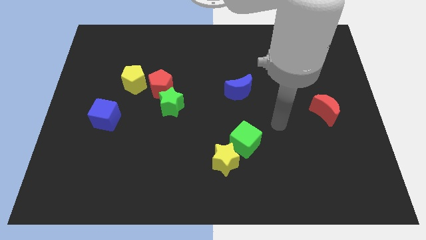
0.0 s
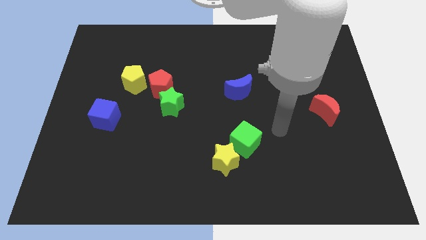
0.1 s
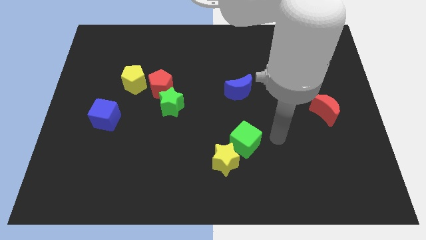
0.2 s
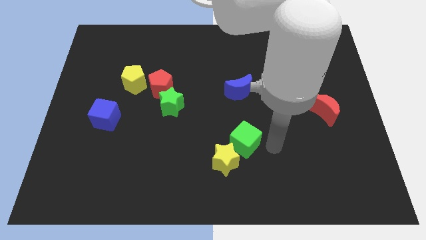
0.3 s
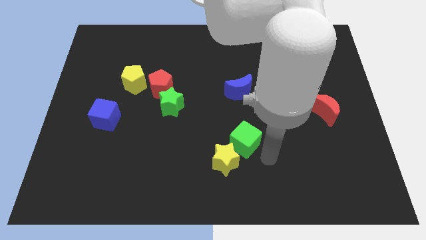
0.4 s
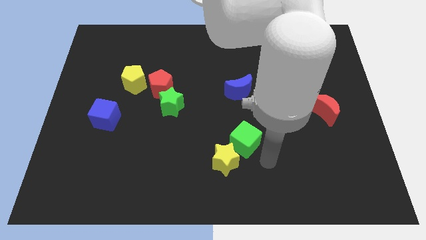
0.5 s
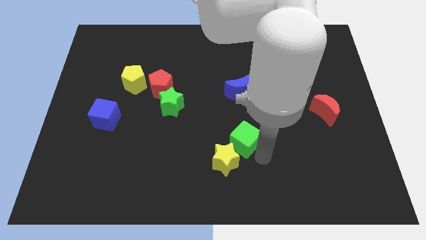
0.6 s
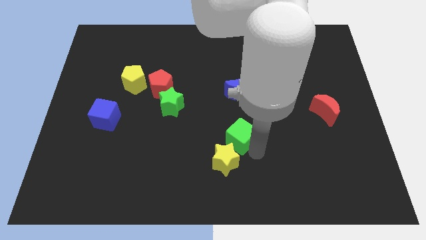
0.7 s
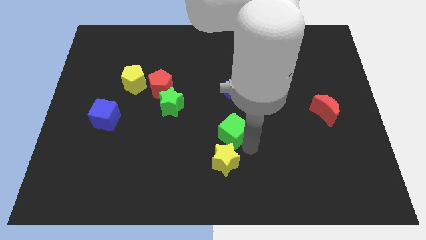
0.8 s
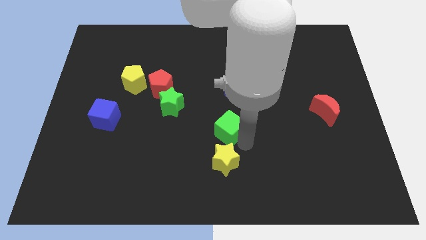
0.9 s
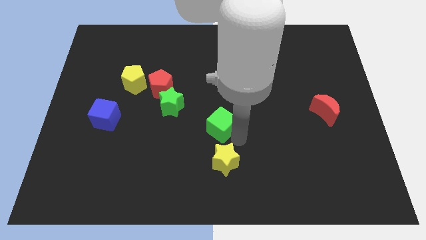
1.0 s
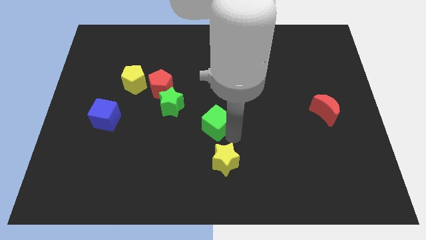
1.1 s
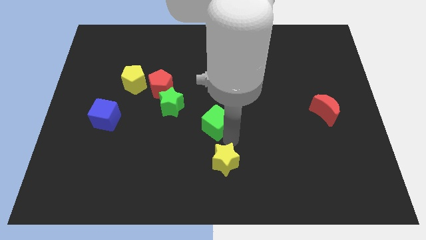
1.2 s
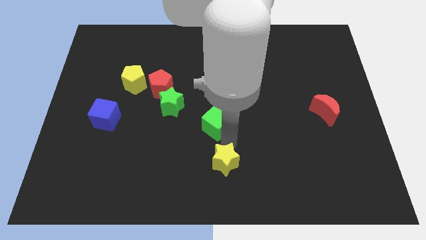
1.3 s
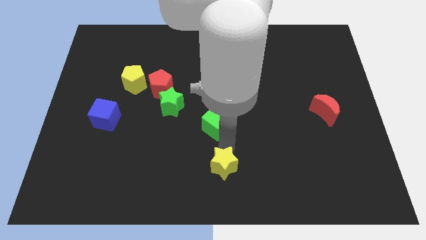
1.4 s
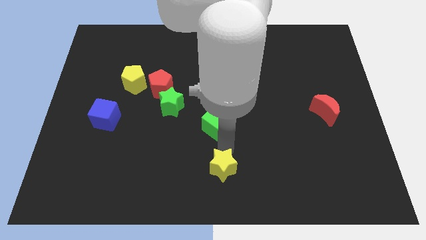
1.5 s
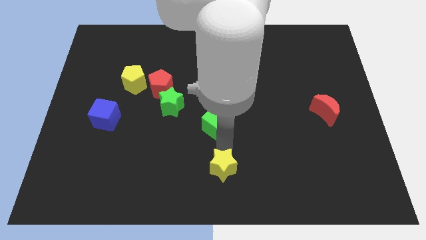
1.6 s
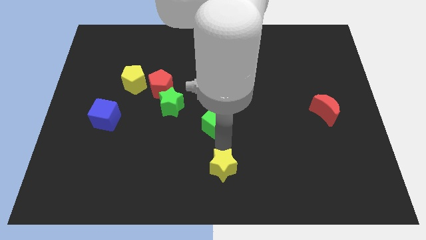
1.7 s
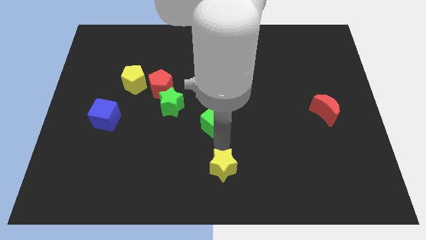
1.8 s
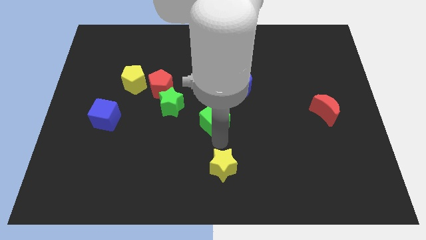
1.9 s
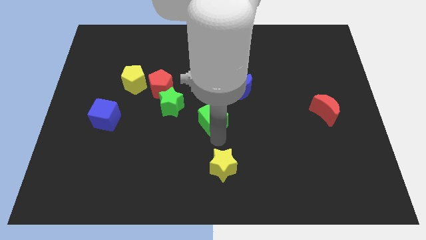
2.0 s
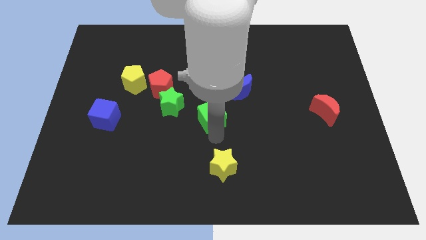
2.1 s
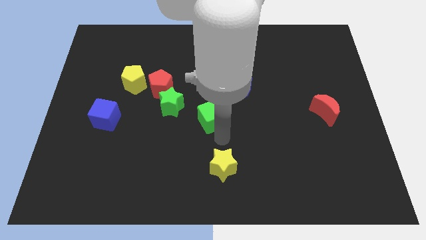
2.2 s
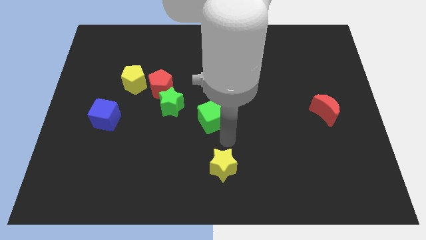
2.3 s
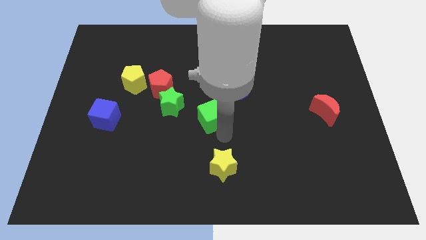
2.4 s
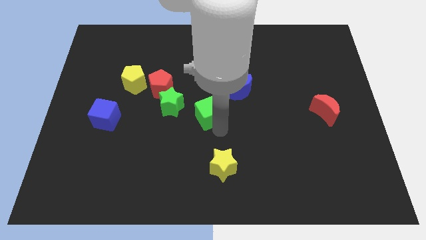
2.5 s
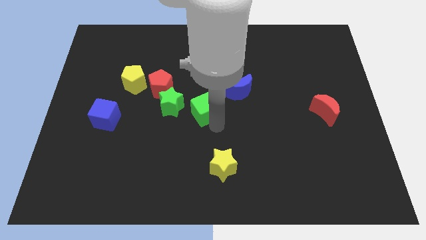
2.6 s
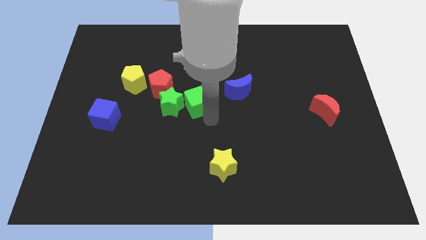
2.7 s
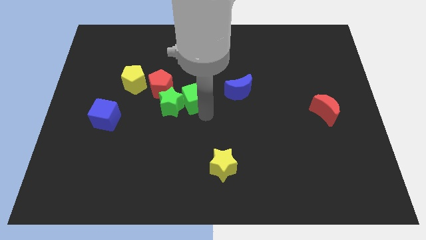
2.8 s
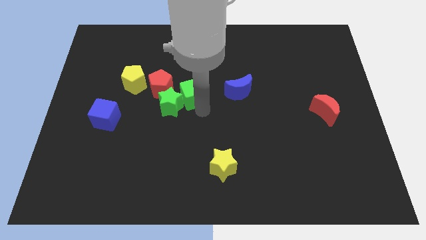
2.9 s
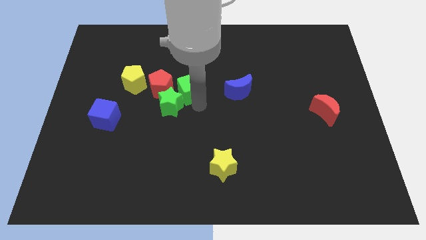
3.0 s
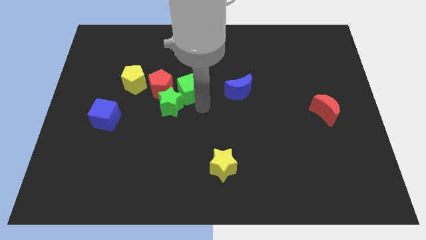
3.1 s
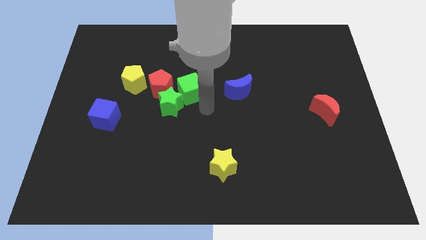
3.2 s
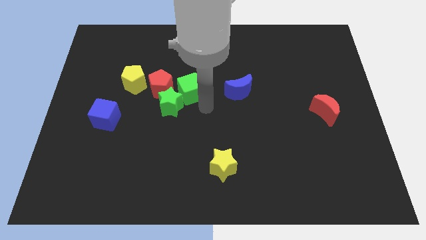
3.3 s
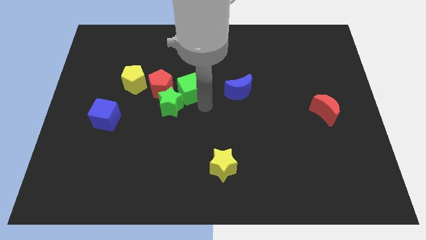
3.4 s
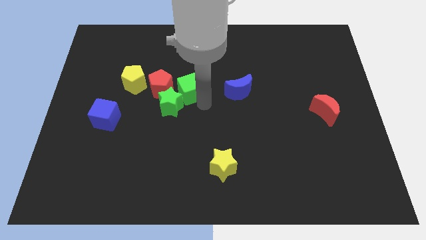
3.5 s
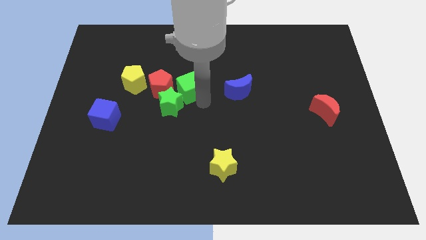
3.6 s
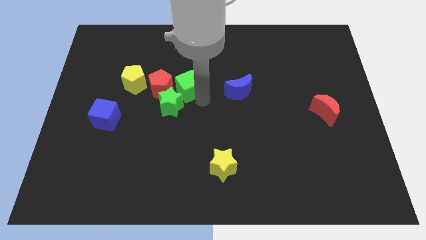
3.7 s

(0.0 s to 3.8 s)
slide the green cube upwards and then left

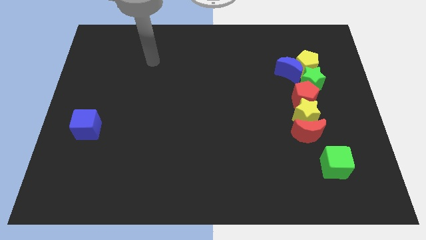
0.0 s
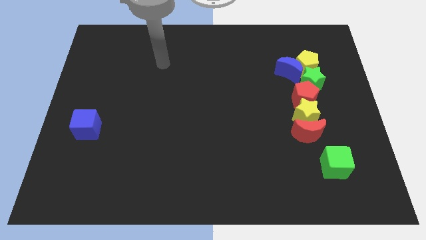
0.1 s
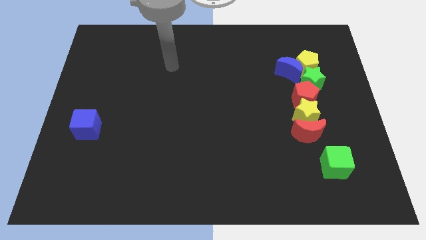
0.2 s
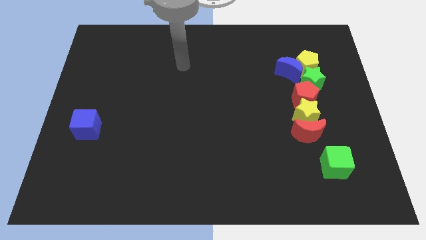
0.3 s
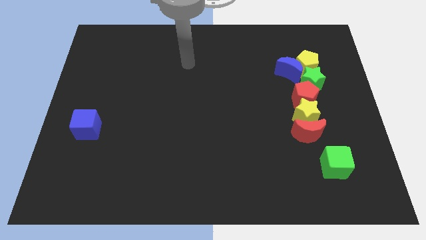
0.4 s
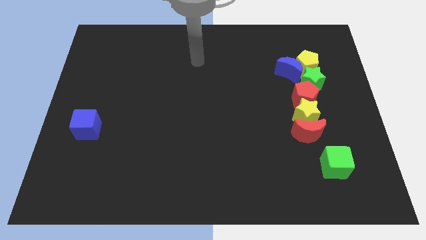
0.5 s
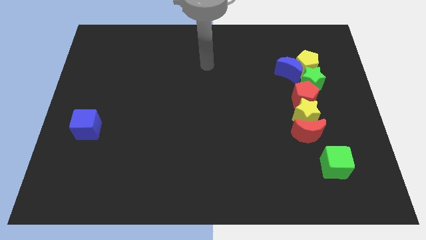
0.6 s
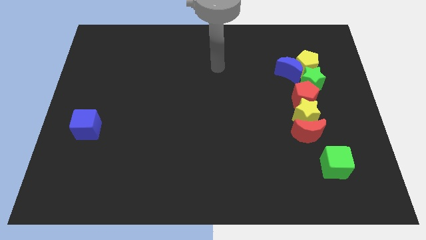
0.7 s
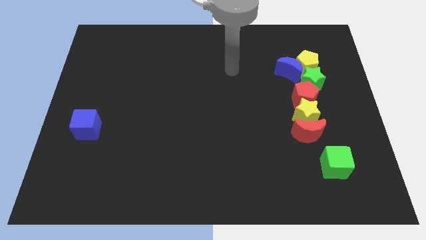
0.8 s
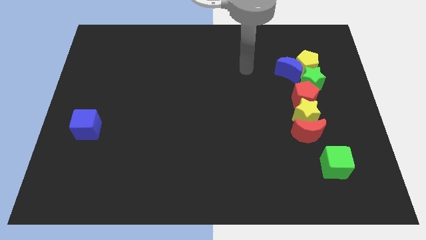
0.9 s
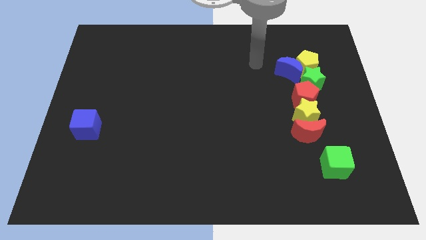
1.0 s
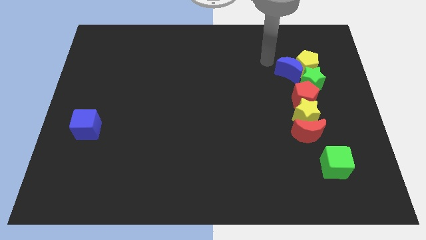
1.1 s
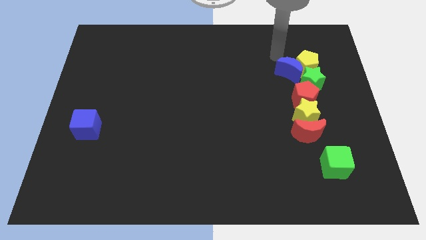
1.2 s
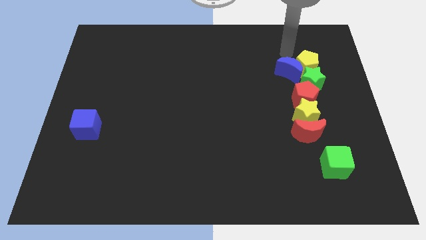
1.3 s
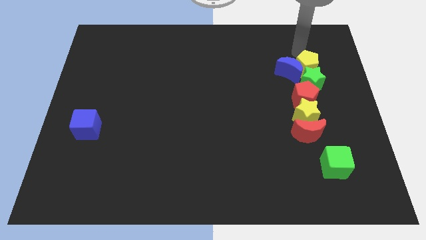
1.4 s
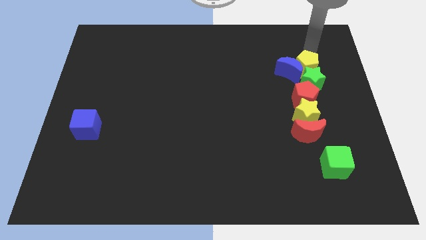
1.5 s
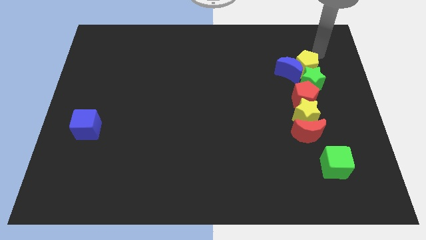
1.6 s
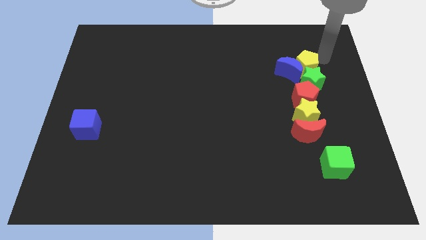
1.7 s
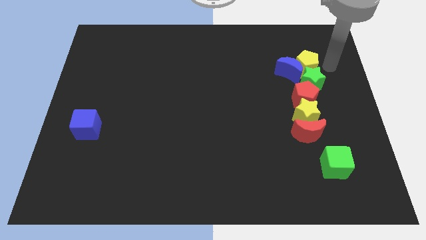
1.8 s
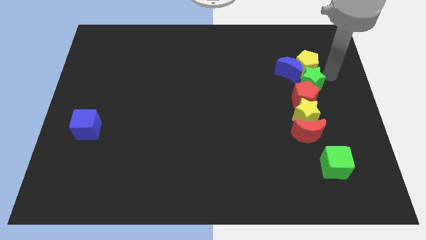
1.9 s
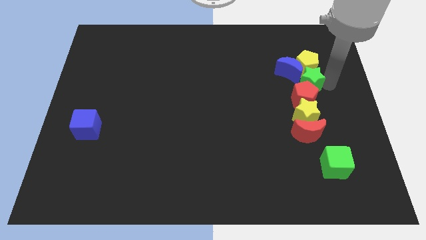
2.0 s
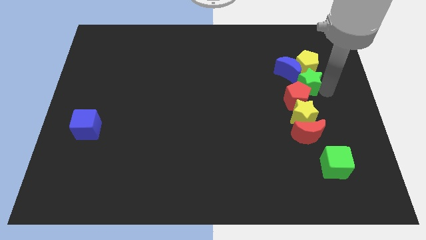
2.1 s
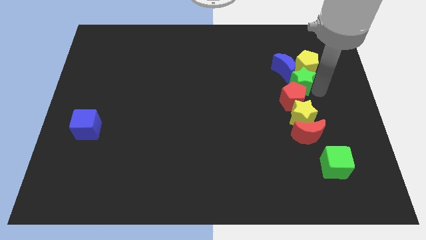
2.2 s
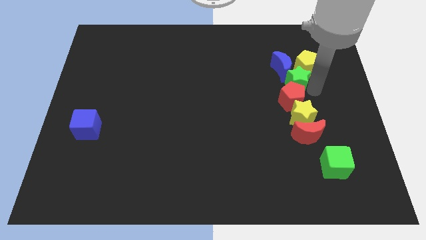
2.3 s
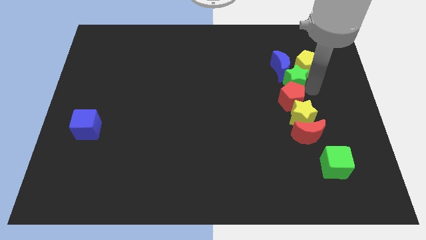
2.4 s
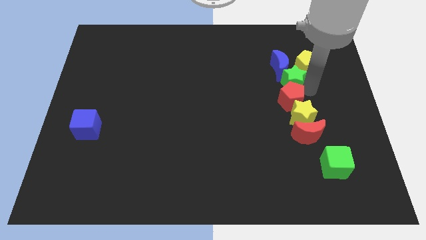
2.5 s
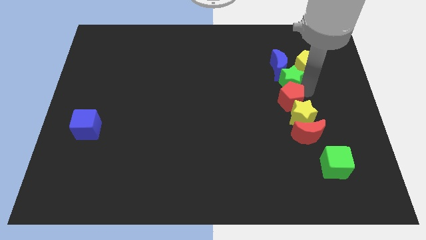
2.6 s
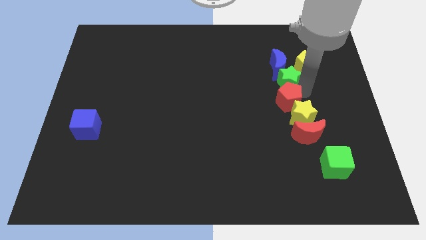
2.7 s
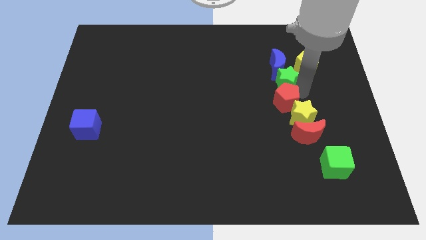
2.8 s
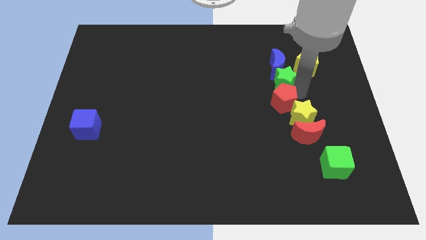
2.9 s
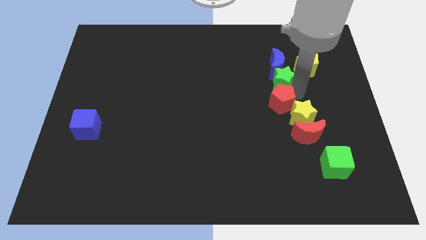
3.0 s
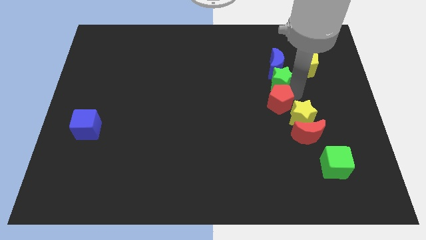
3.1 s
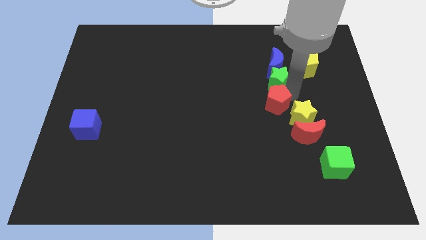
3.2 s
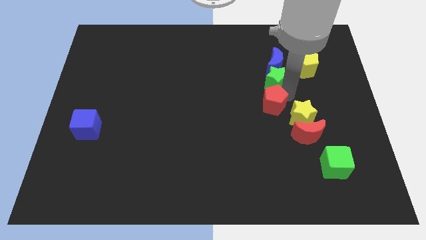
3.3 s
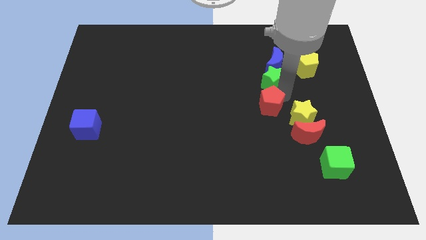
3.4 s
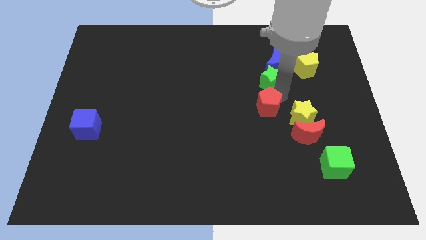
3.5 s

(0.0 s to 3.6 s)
move the red pentagon diagonally downwards and to the left a bit

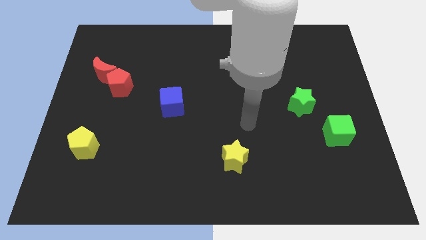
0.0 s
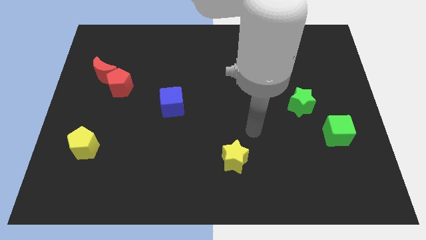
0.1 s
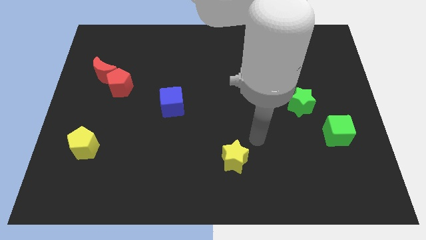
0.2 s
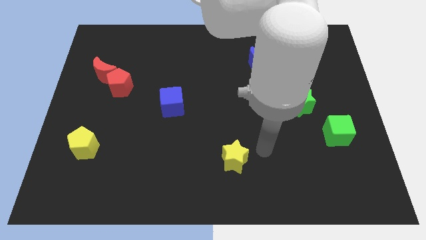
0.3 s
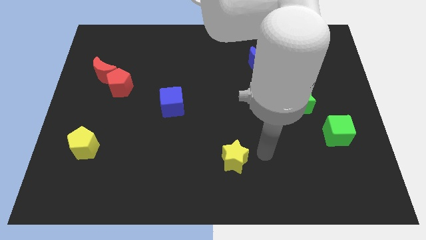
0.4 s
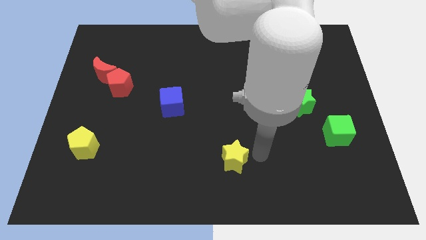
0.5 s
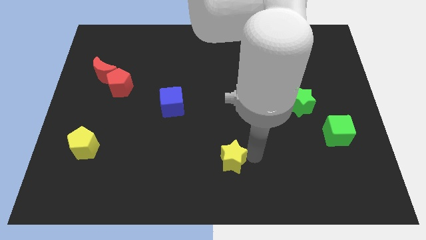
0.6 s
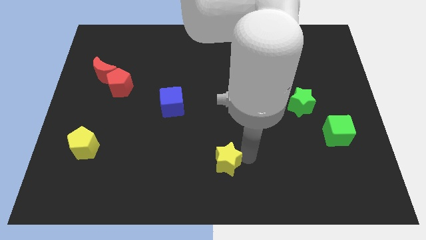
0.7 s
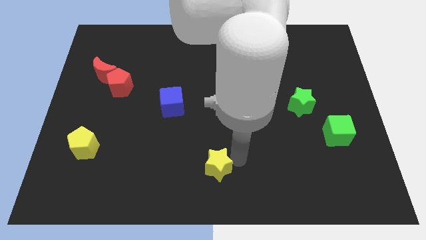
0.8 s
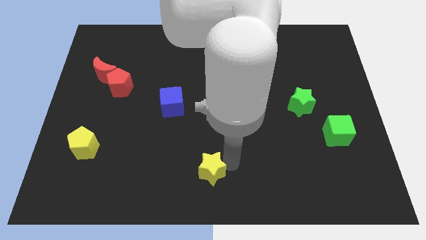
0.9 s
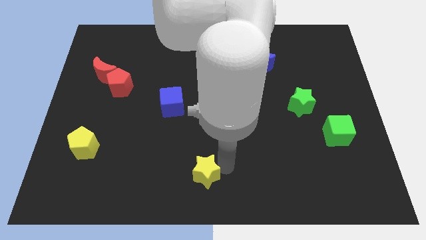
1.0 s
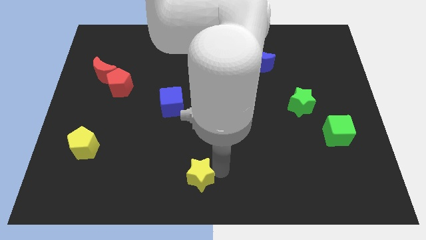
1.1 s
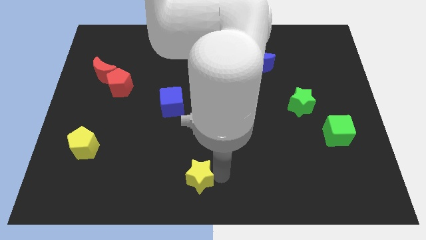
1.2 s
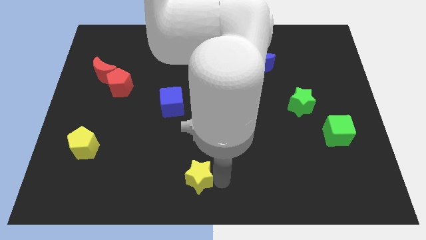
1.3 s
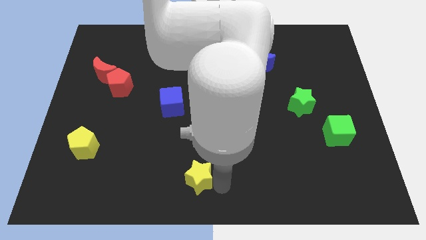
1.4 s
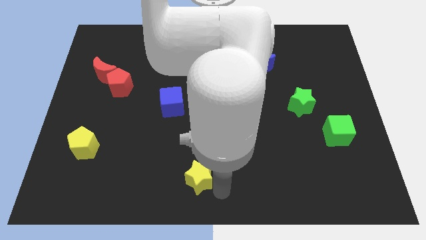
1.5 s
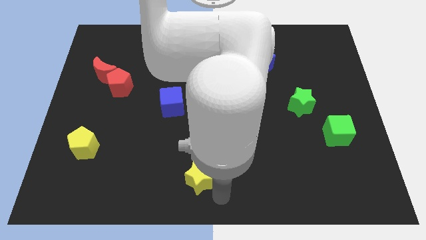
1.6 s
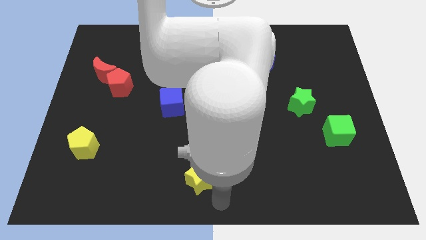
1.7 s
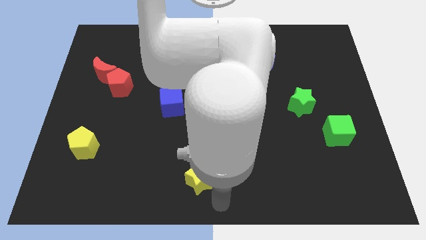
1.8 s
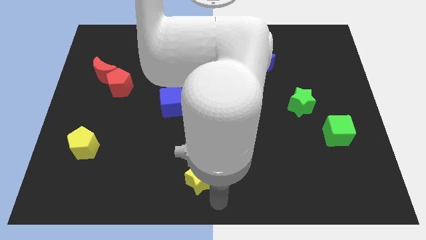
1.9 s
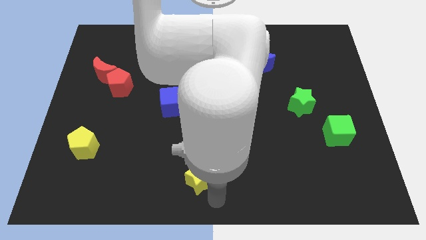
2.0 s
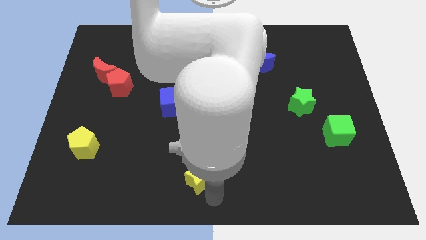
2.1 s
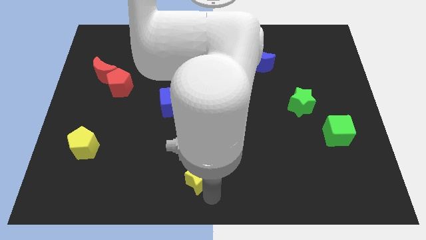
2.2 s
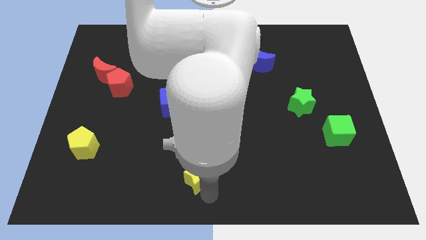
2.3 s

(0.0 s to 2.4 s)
move the yellow star a little bit left
